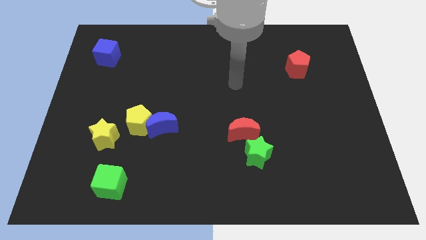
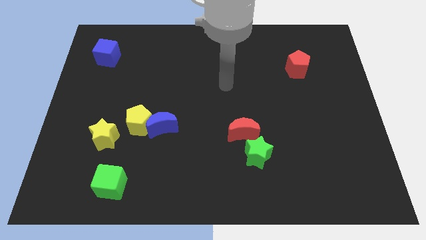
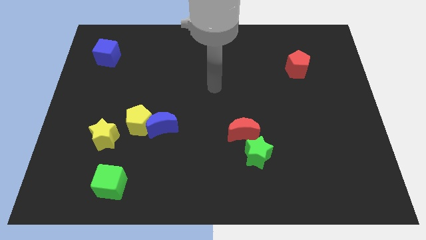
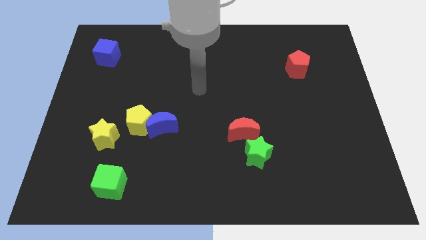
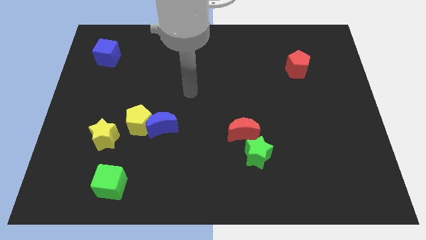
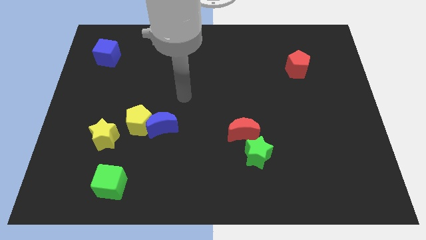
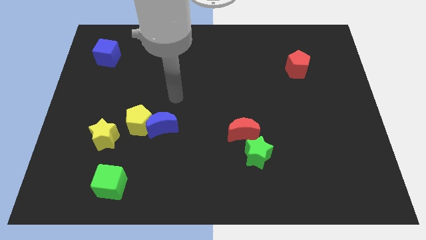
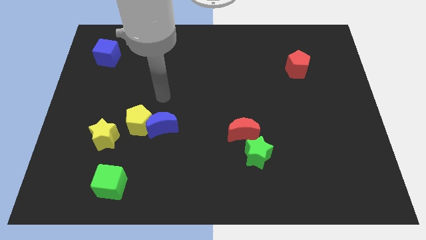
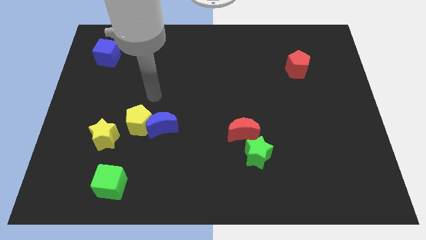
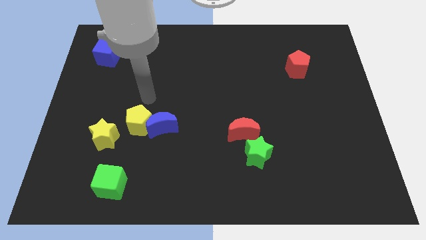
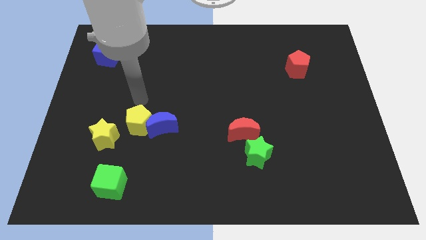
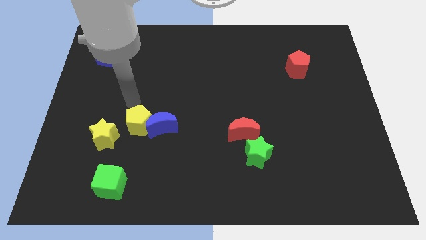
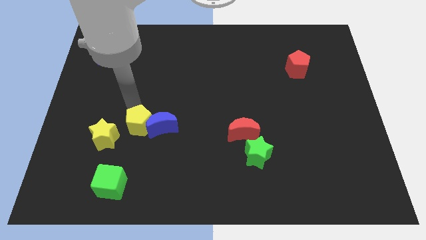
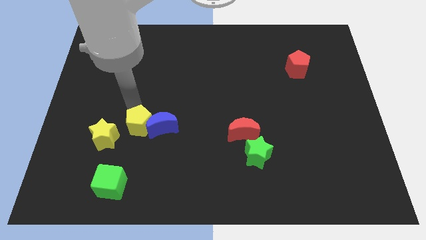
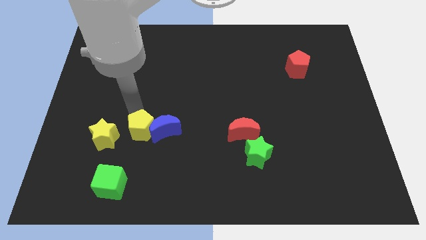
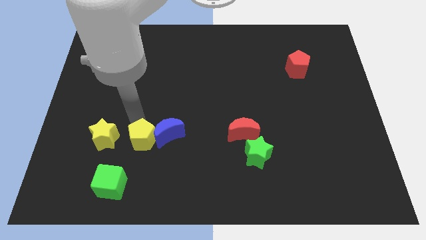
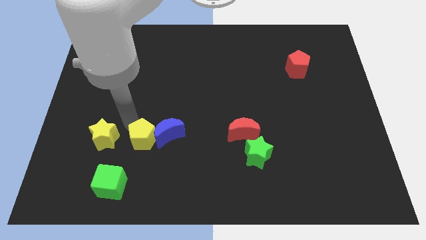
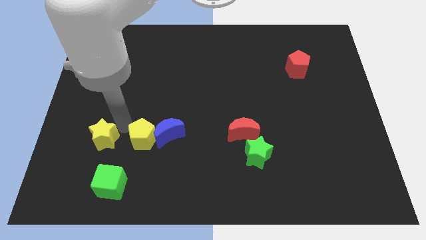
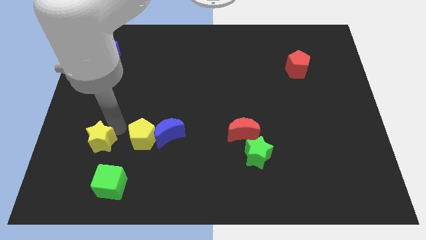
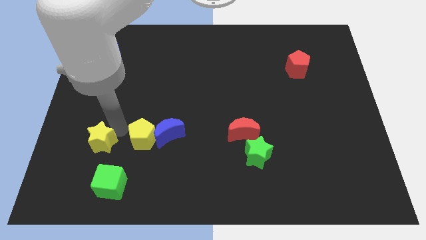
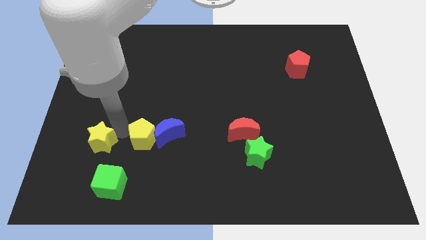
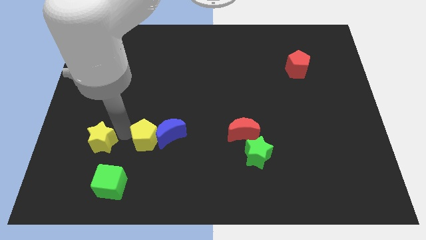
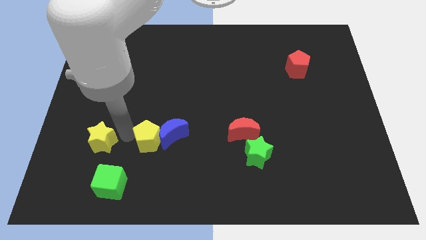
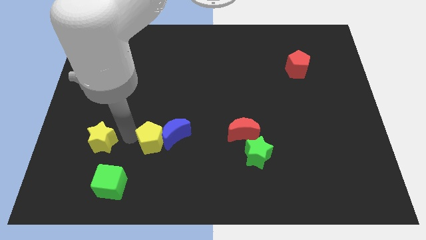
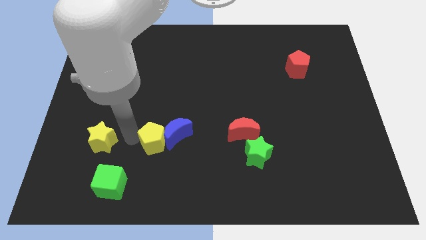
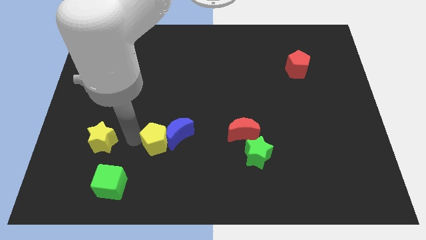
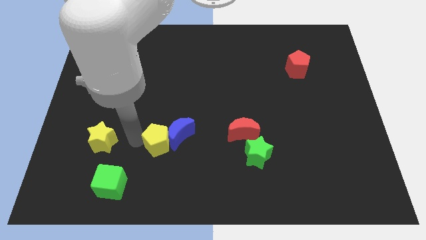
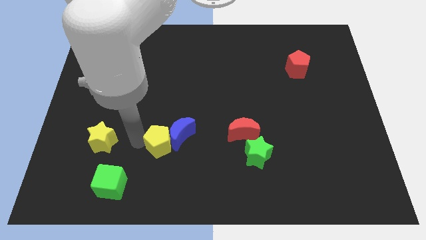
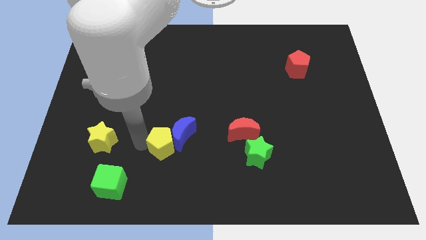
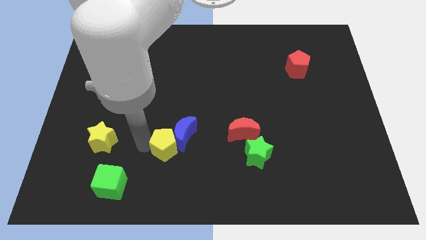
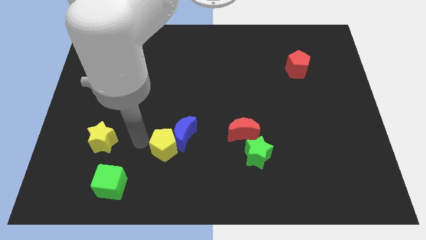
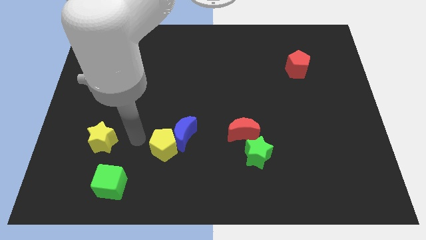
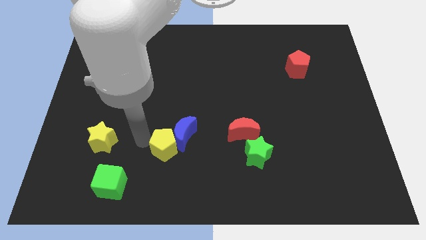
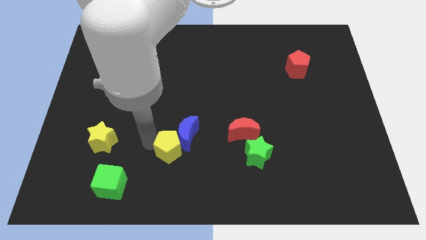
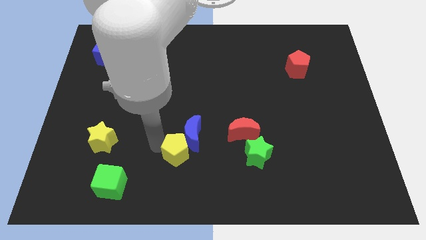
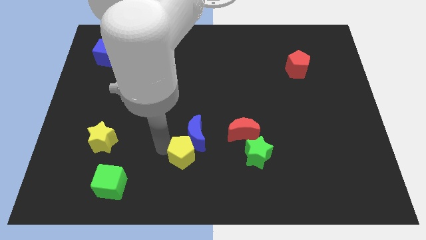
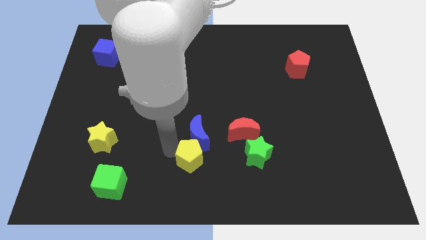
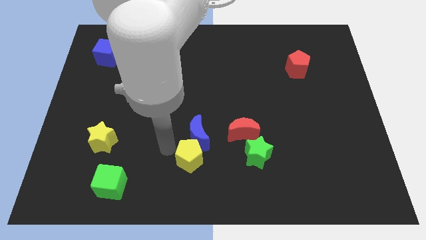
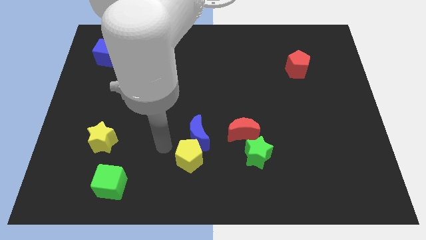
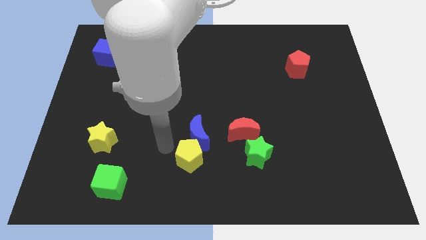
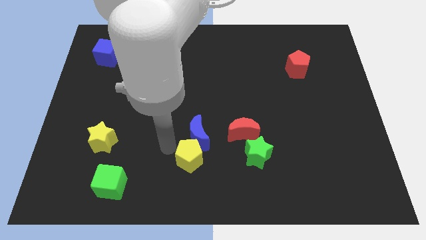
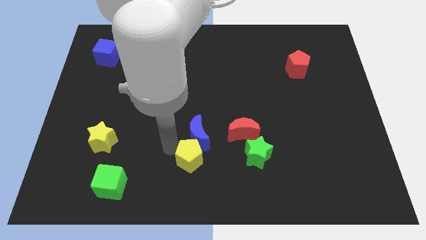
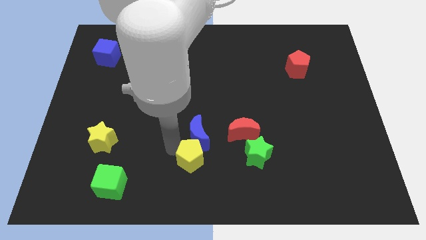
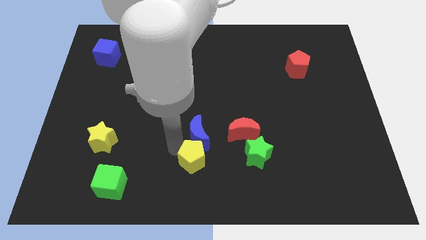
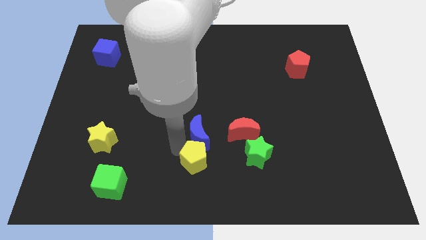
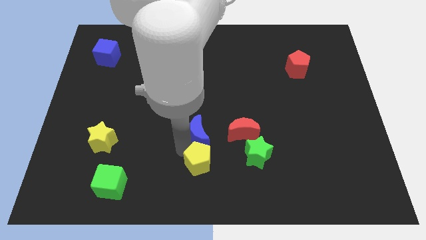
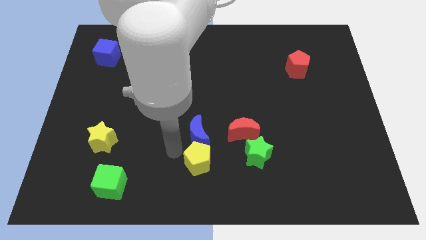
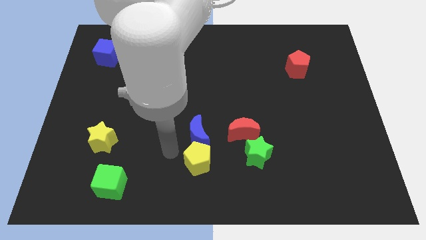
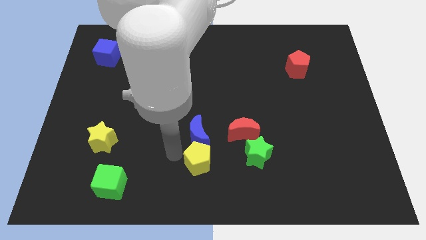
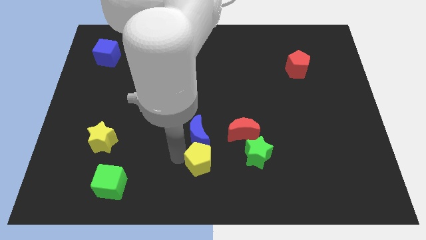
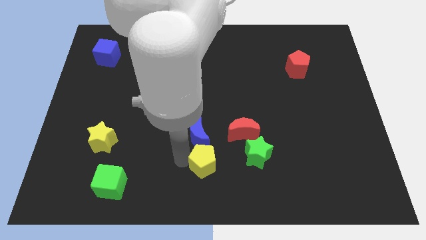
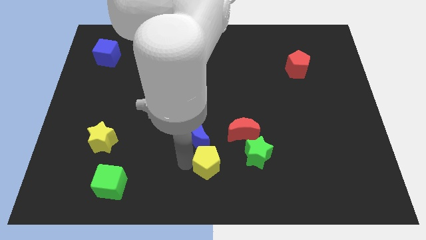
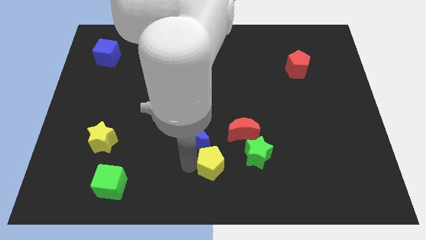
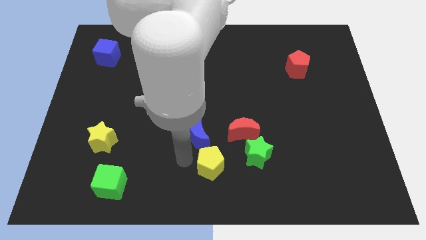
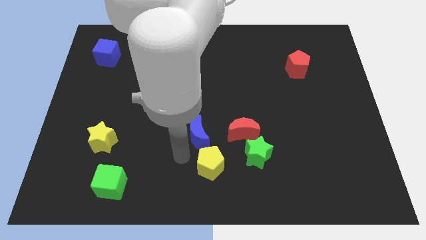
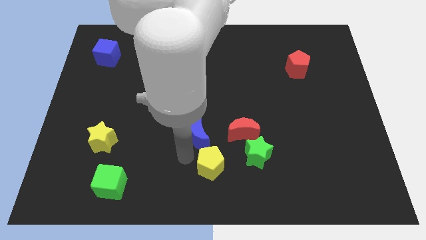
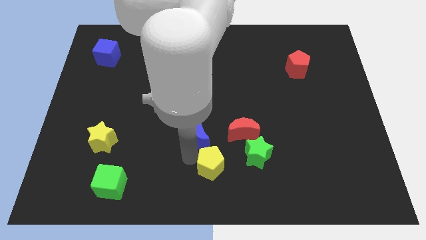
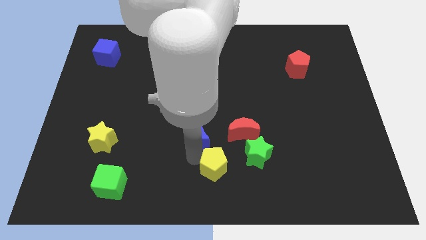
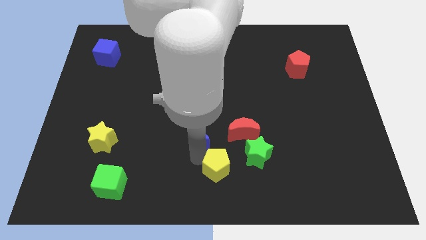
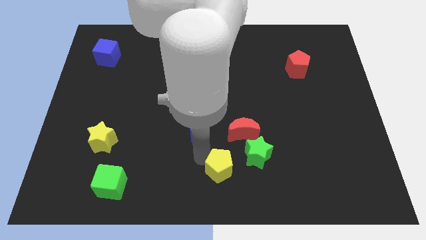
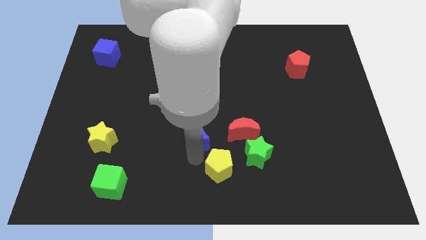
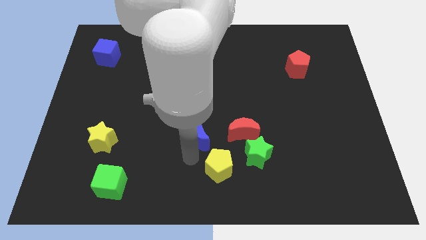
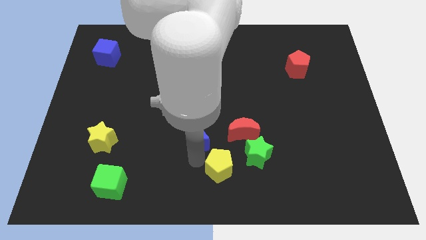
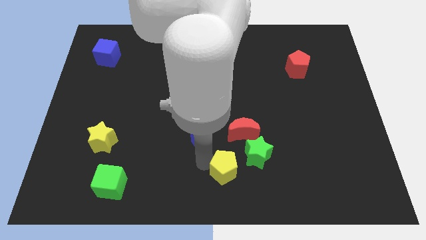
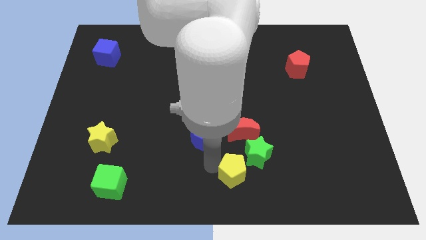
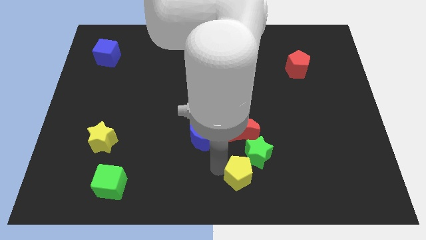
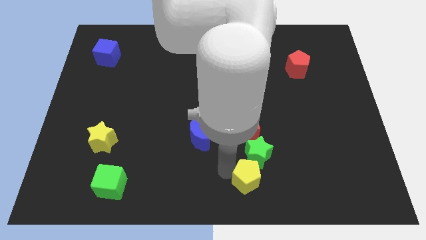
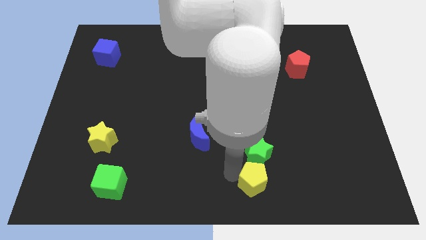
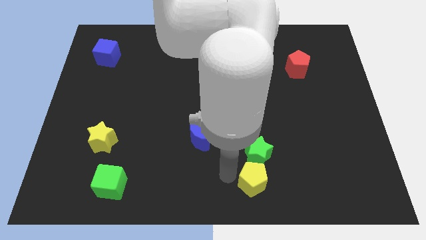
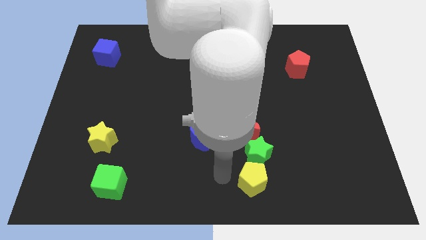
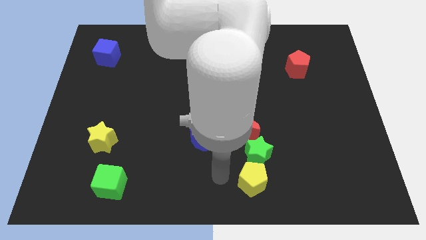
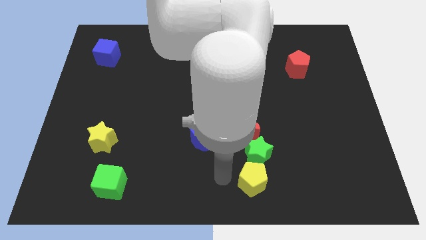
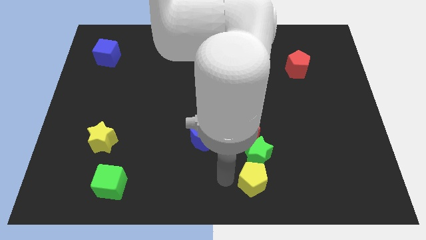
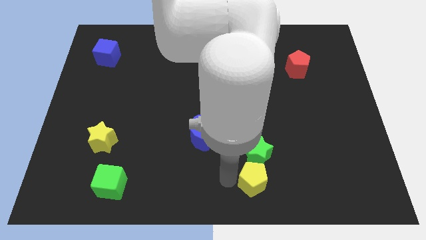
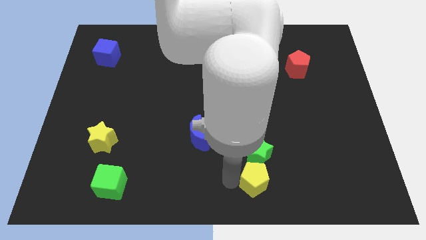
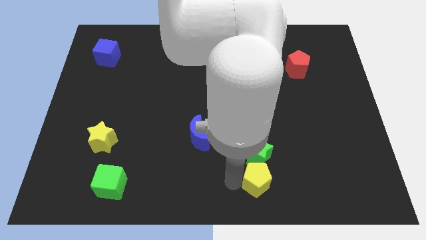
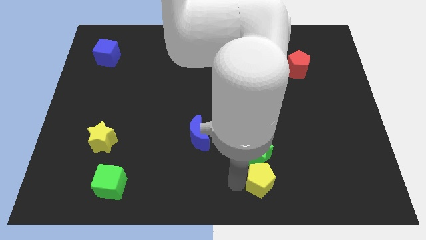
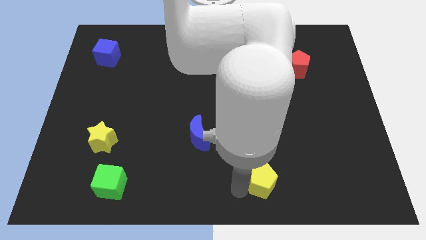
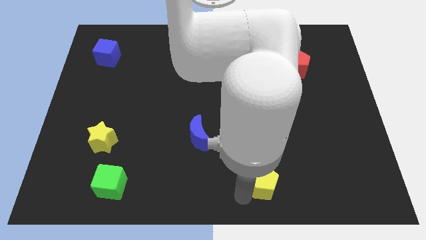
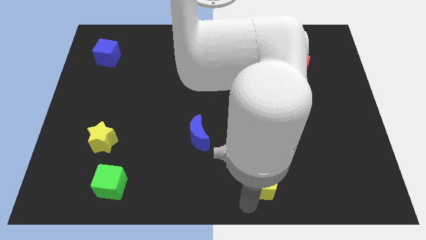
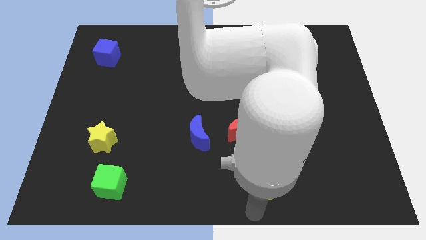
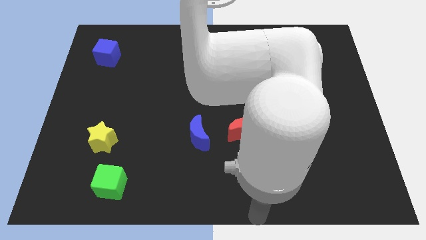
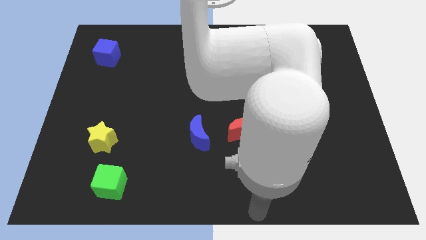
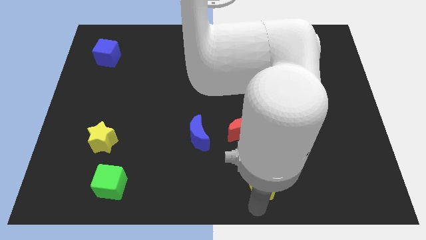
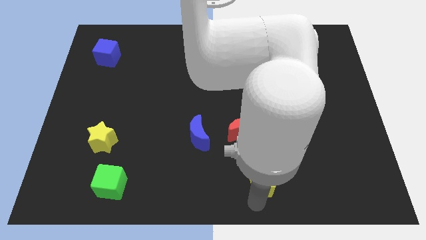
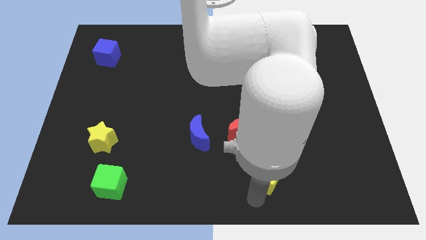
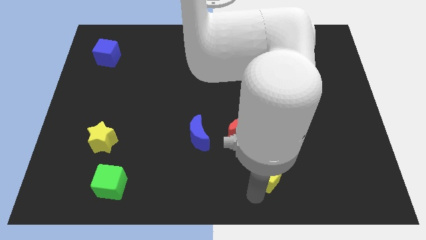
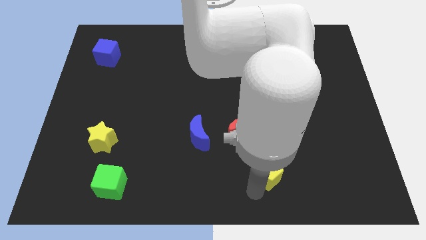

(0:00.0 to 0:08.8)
move the yellow pentagon to the bottom right of the red moon
